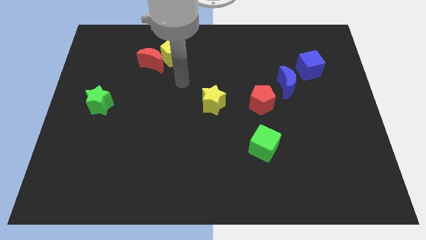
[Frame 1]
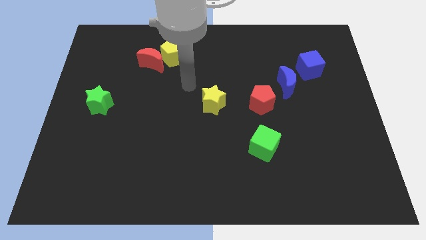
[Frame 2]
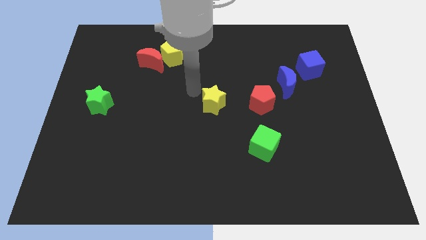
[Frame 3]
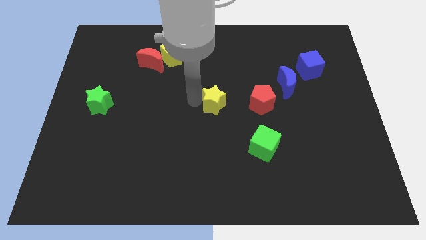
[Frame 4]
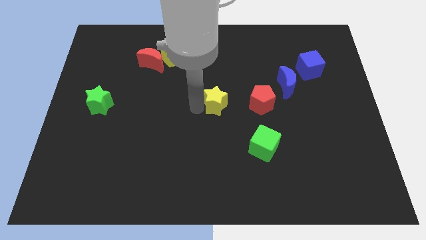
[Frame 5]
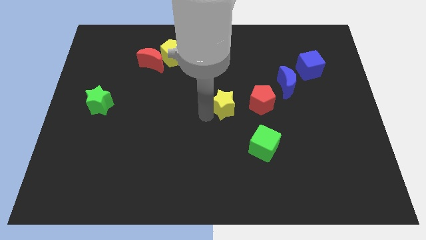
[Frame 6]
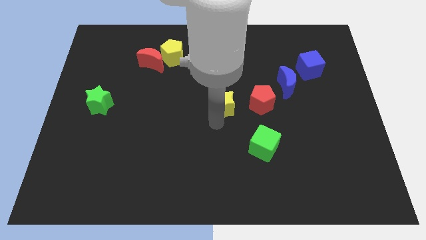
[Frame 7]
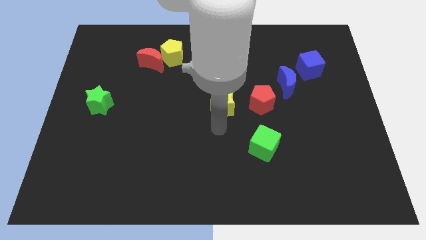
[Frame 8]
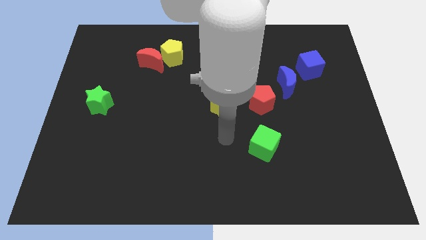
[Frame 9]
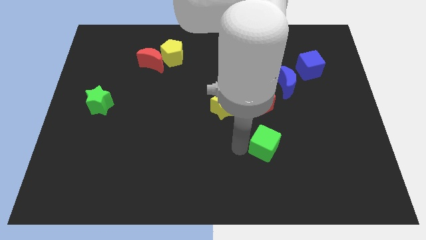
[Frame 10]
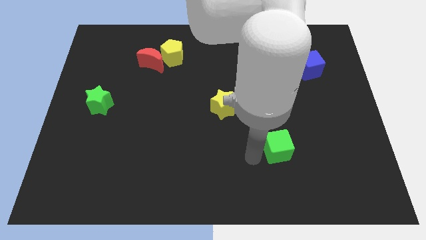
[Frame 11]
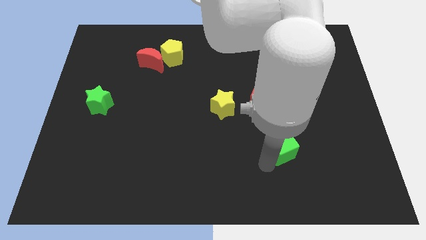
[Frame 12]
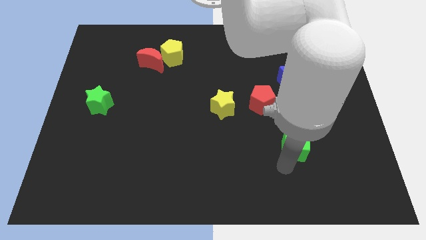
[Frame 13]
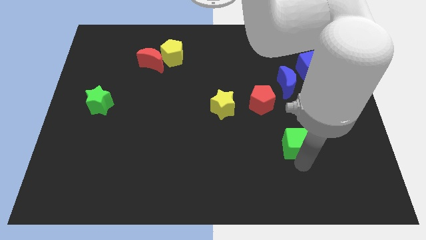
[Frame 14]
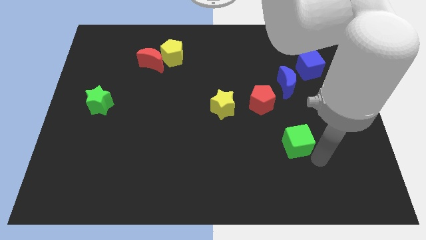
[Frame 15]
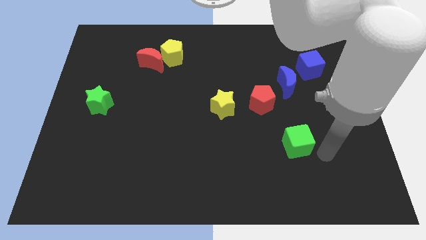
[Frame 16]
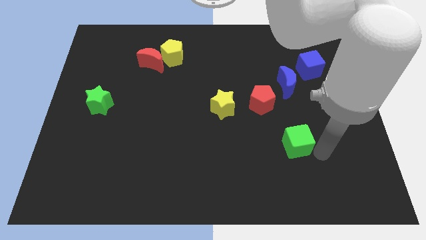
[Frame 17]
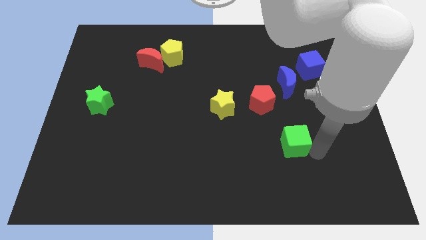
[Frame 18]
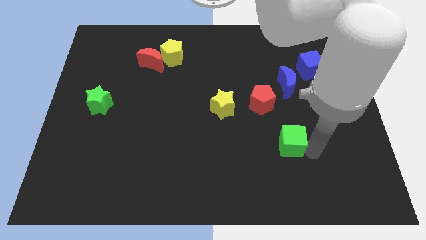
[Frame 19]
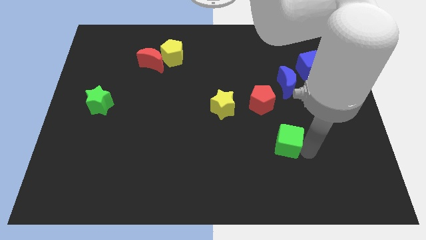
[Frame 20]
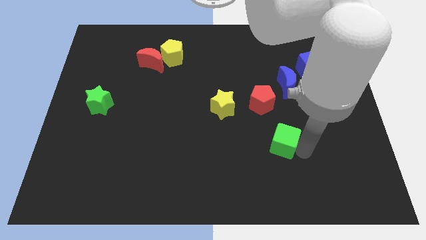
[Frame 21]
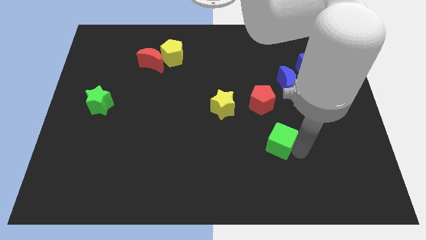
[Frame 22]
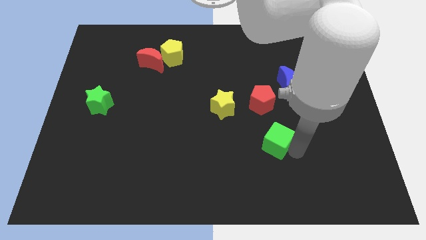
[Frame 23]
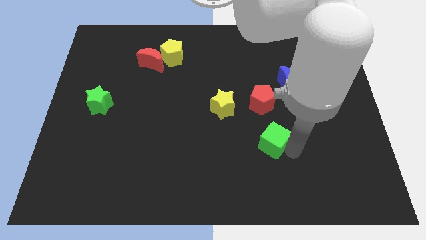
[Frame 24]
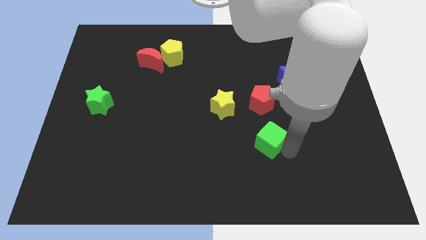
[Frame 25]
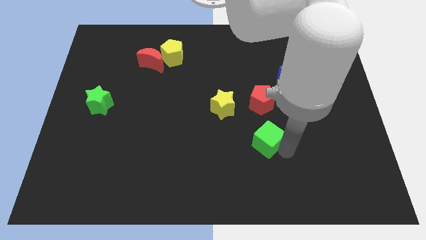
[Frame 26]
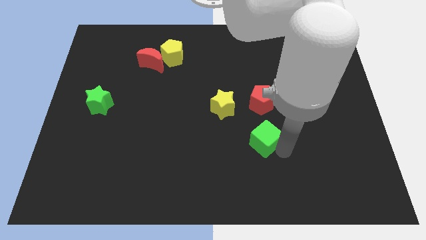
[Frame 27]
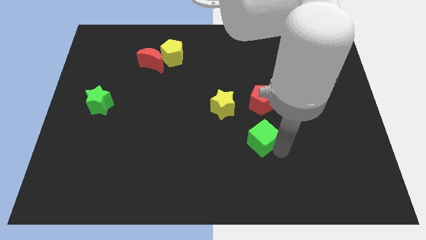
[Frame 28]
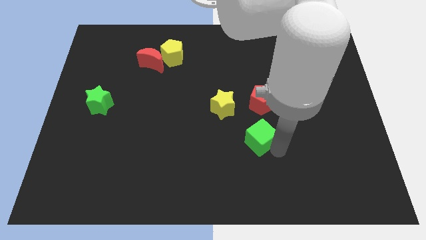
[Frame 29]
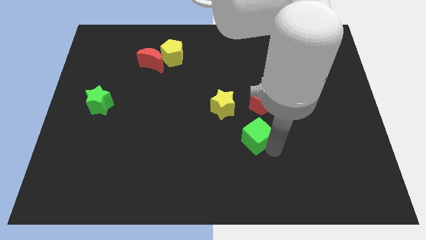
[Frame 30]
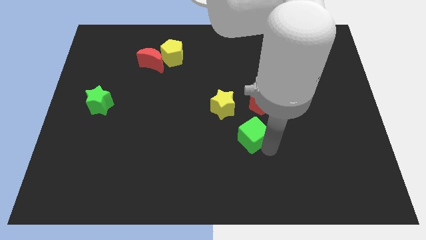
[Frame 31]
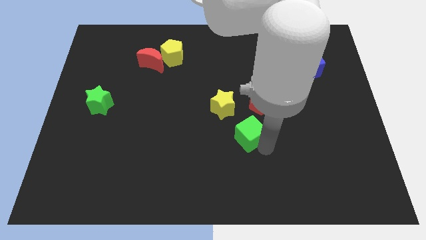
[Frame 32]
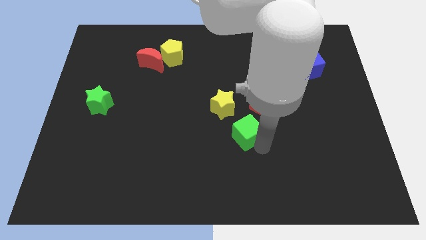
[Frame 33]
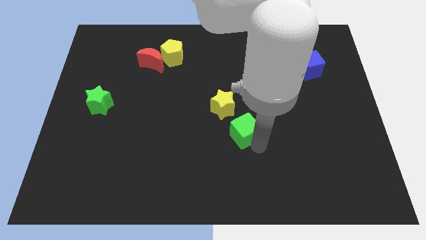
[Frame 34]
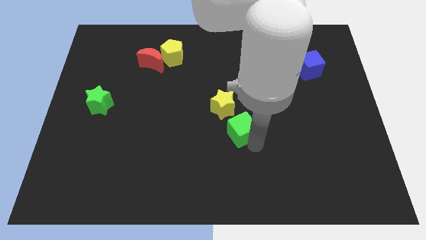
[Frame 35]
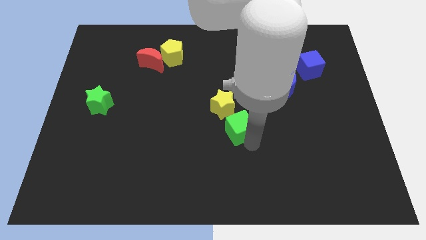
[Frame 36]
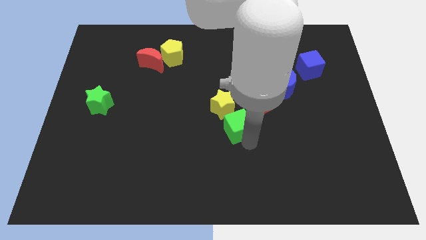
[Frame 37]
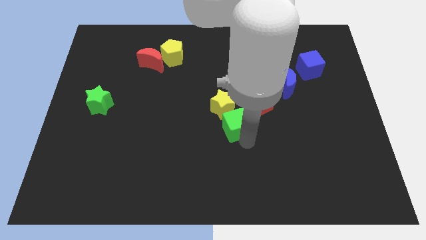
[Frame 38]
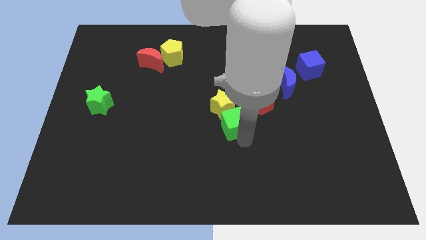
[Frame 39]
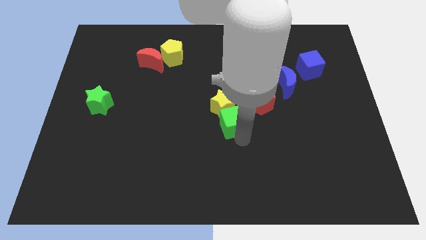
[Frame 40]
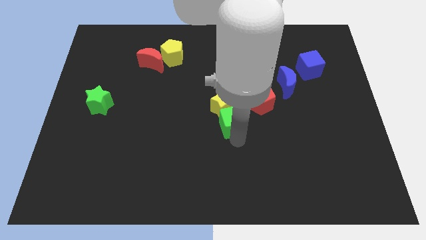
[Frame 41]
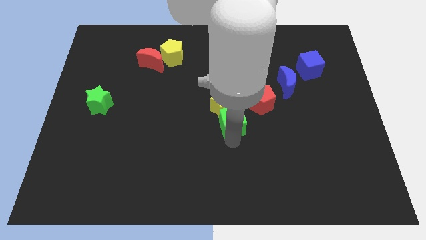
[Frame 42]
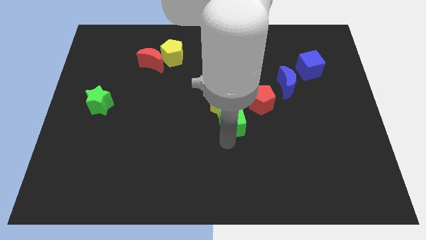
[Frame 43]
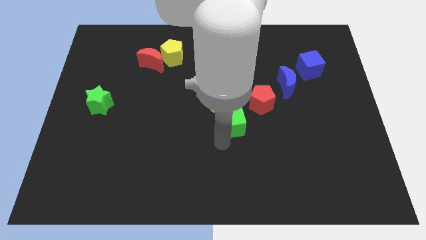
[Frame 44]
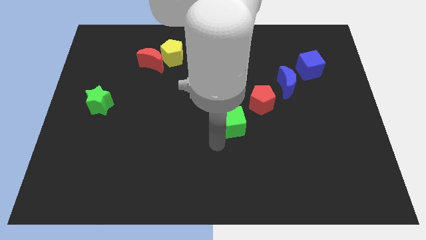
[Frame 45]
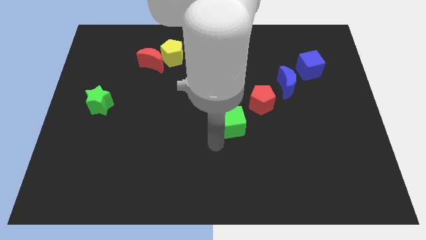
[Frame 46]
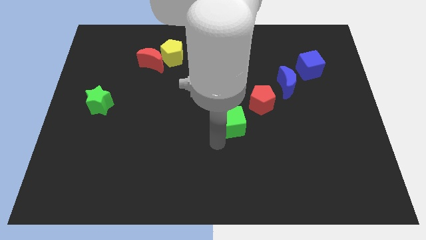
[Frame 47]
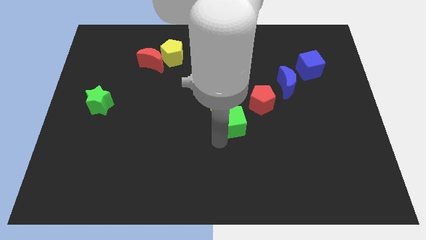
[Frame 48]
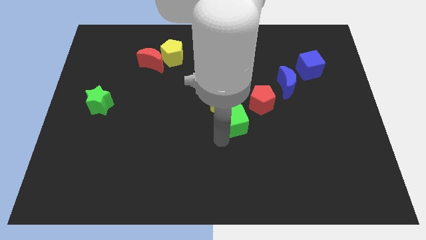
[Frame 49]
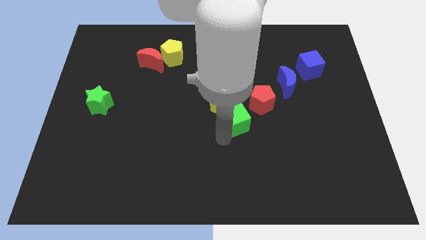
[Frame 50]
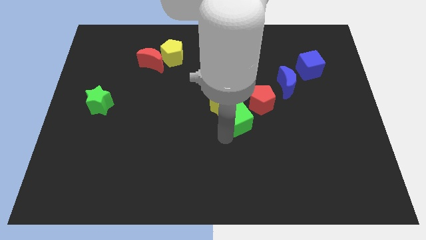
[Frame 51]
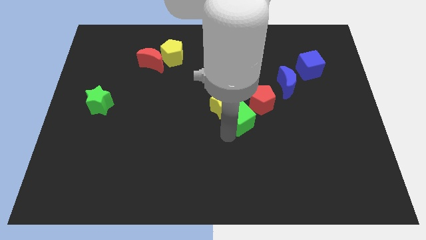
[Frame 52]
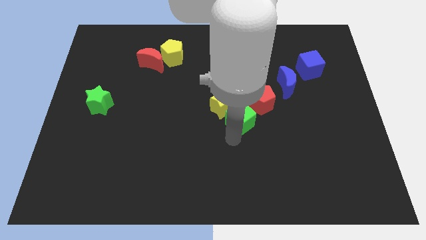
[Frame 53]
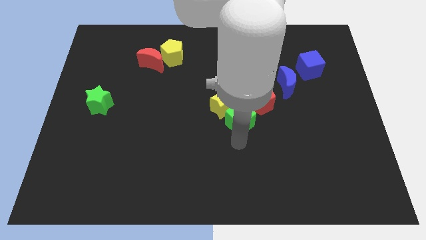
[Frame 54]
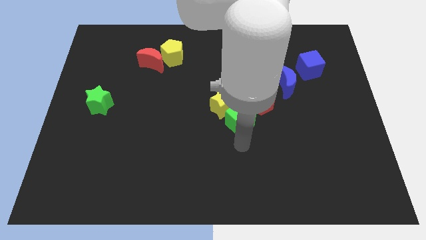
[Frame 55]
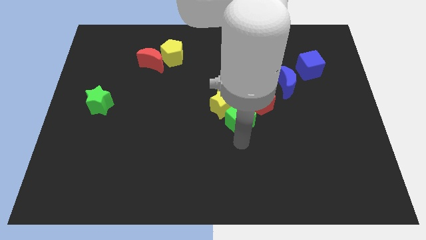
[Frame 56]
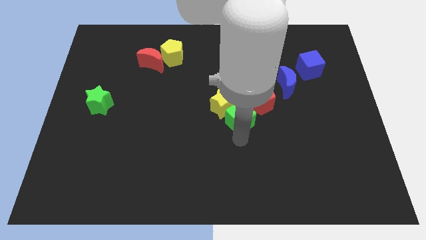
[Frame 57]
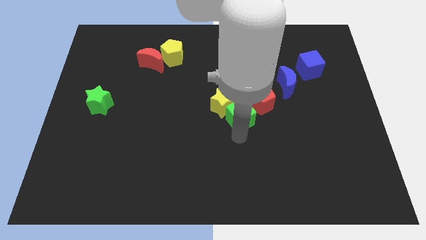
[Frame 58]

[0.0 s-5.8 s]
slightly slide the green cube up

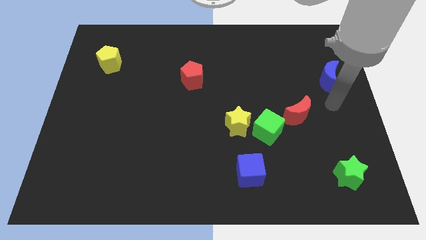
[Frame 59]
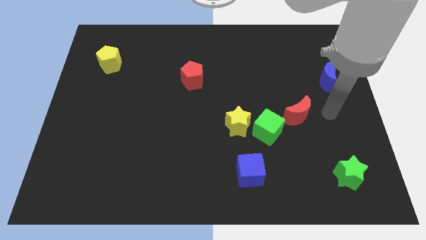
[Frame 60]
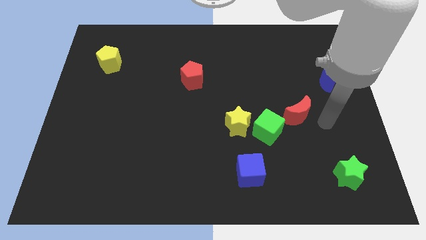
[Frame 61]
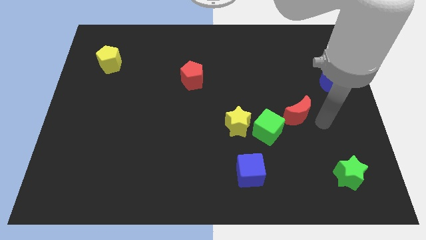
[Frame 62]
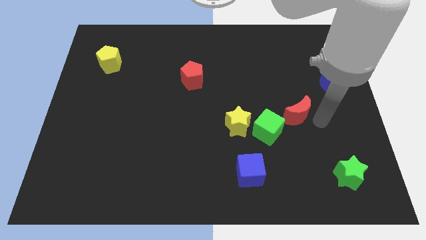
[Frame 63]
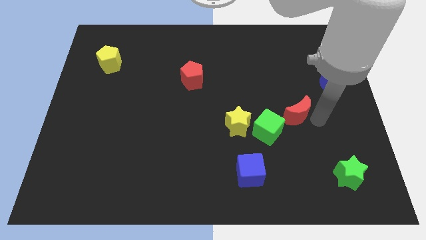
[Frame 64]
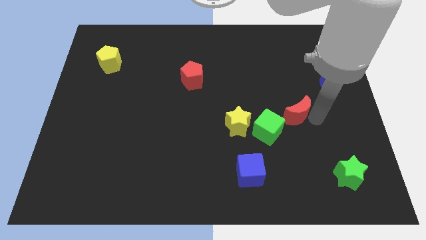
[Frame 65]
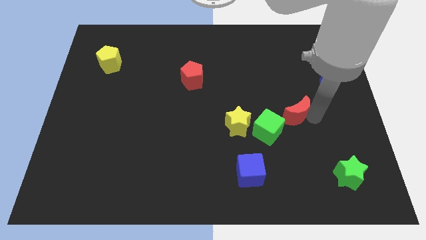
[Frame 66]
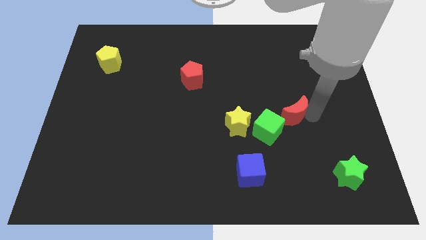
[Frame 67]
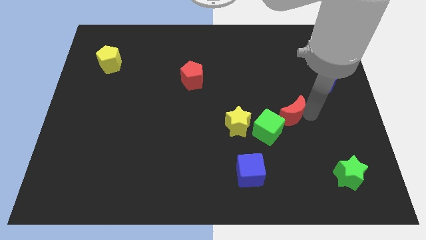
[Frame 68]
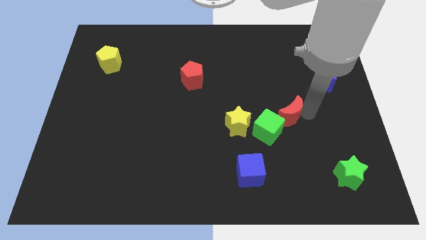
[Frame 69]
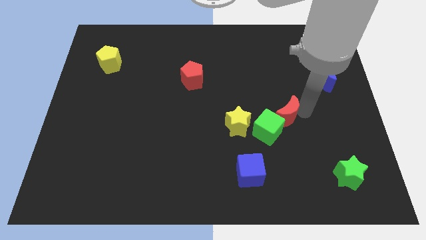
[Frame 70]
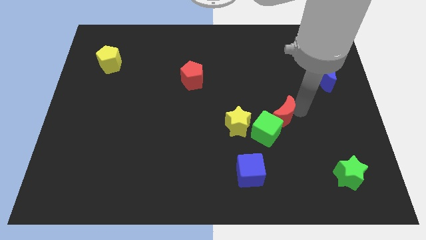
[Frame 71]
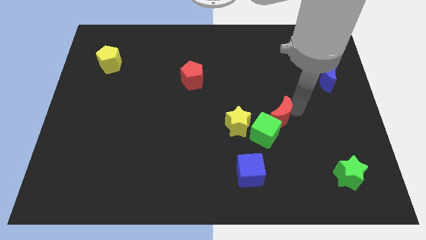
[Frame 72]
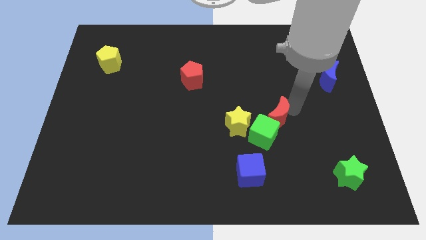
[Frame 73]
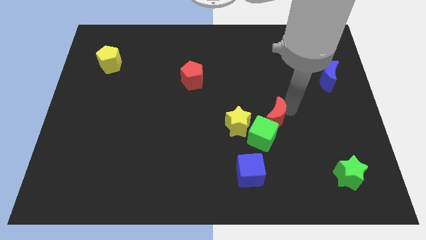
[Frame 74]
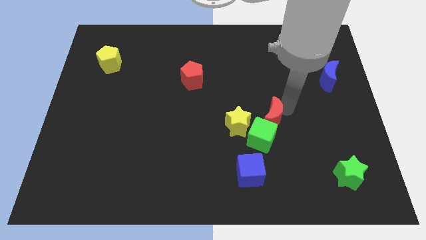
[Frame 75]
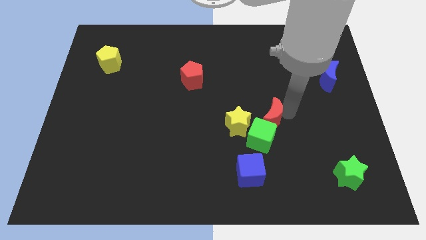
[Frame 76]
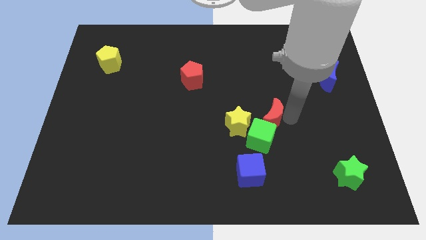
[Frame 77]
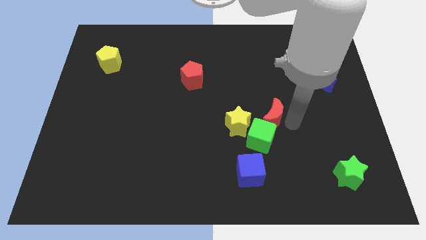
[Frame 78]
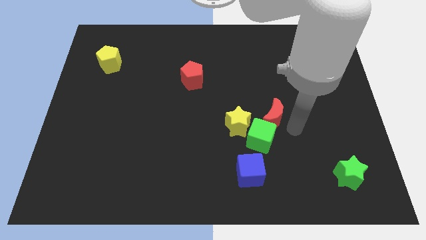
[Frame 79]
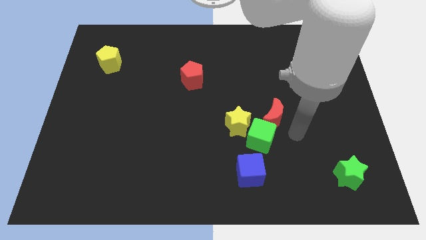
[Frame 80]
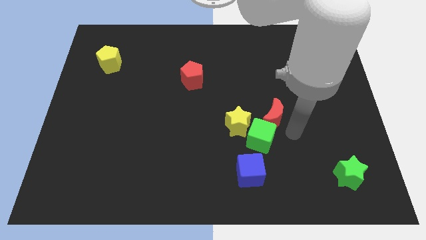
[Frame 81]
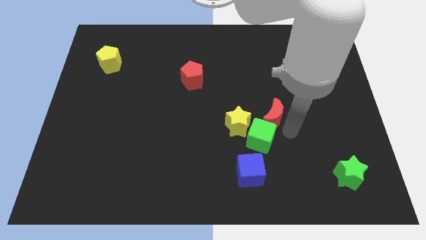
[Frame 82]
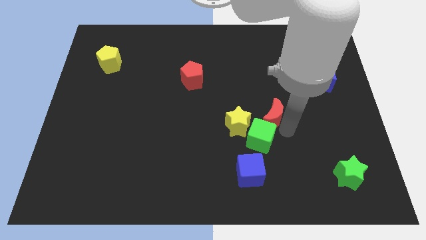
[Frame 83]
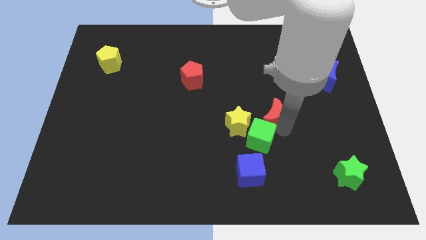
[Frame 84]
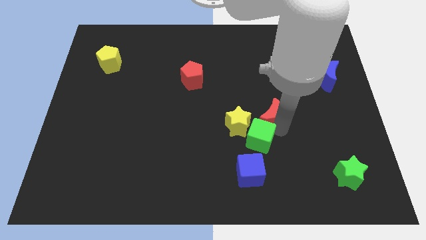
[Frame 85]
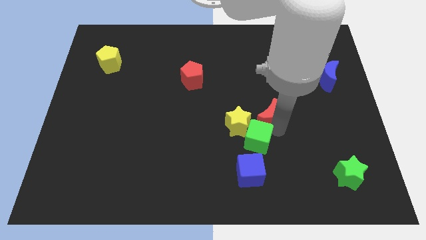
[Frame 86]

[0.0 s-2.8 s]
slightly slide the red moon to the left
